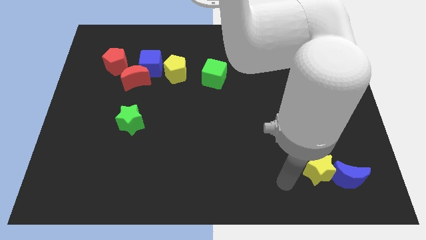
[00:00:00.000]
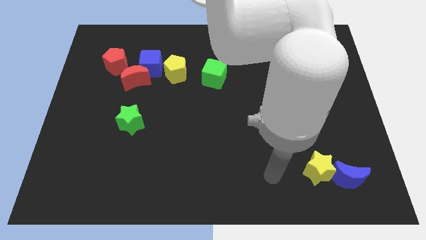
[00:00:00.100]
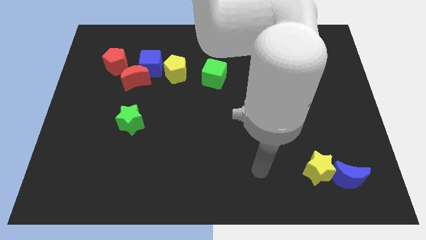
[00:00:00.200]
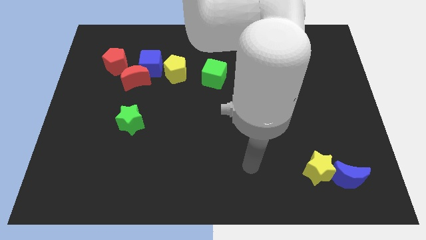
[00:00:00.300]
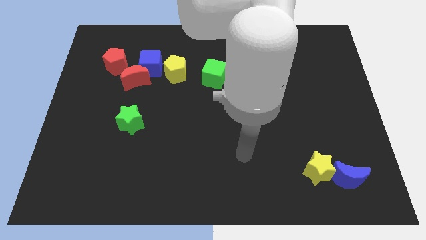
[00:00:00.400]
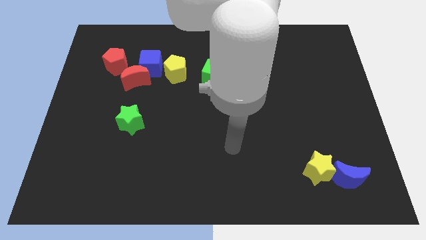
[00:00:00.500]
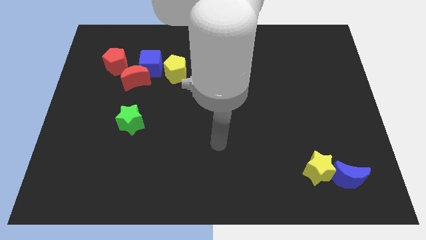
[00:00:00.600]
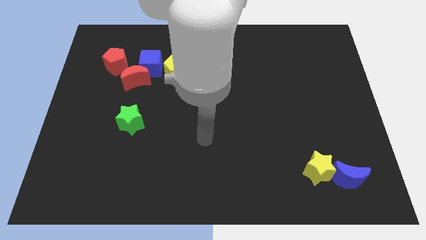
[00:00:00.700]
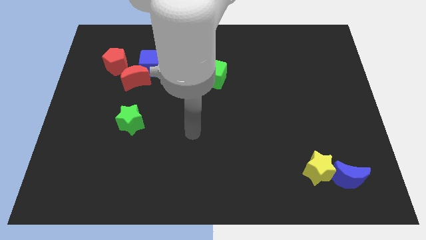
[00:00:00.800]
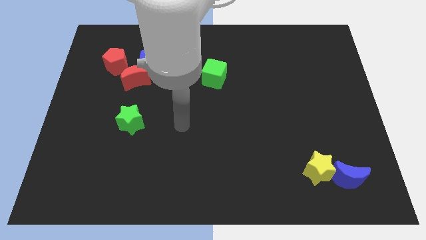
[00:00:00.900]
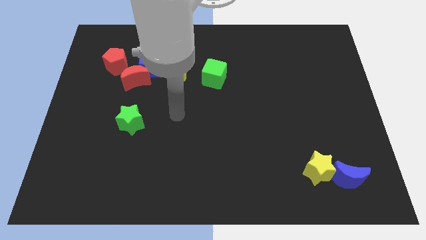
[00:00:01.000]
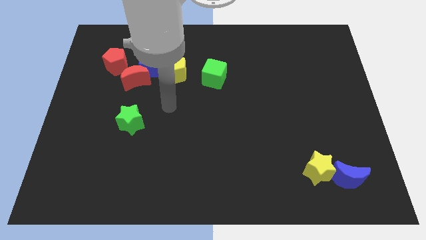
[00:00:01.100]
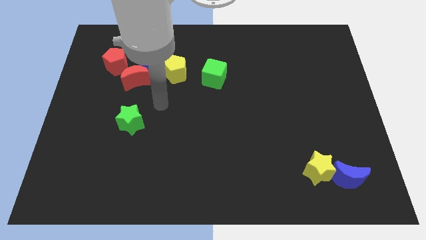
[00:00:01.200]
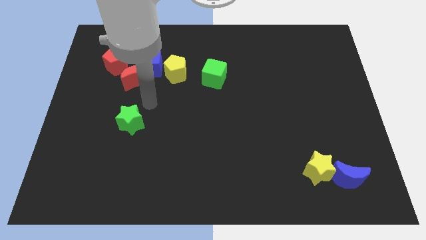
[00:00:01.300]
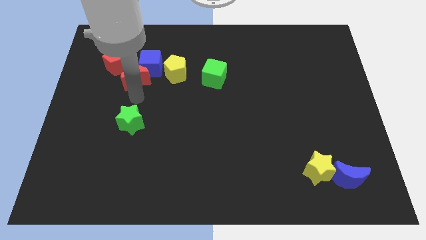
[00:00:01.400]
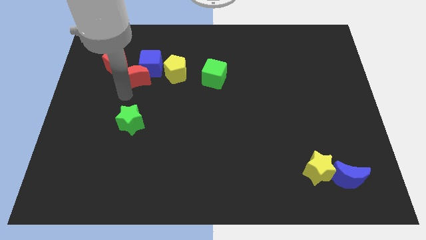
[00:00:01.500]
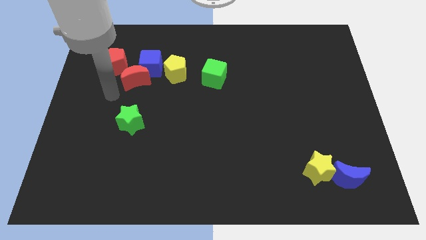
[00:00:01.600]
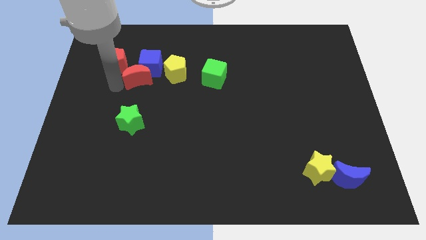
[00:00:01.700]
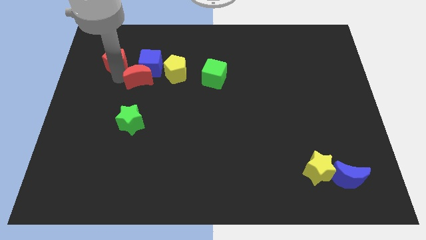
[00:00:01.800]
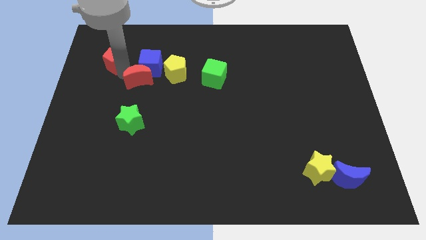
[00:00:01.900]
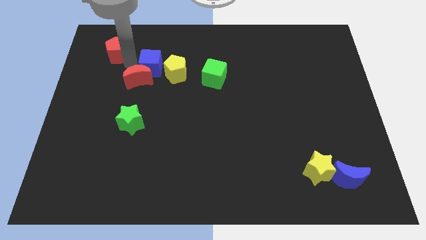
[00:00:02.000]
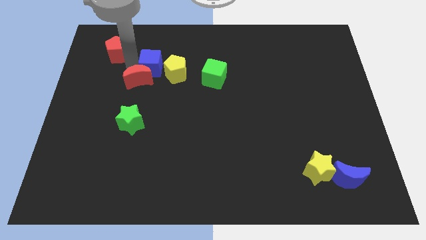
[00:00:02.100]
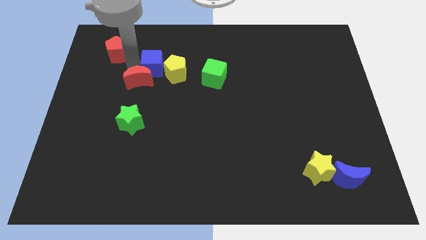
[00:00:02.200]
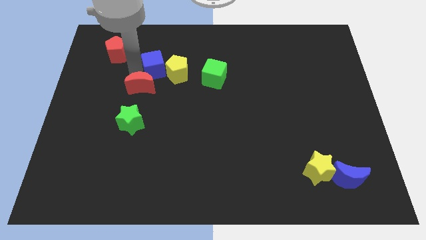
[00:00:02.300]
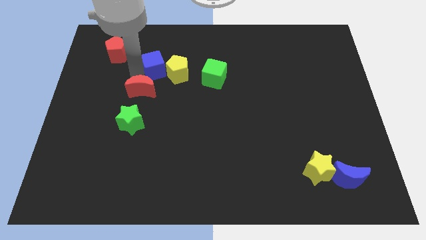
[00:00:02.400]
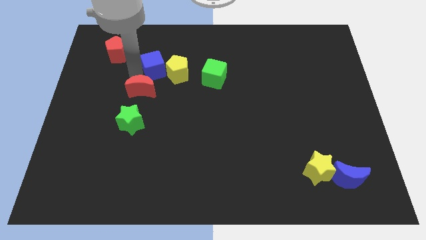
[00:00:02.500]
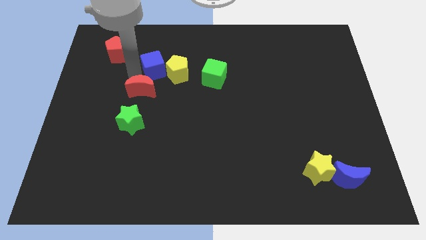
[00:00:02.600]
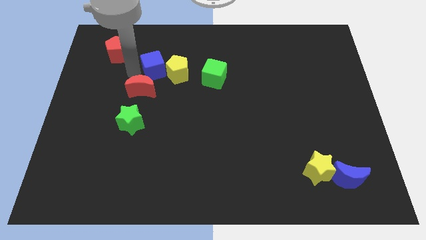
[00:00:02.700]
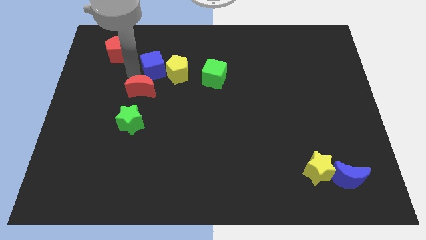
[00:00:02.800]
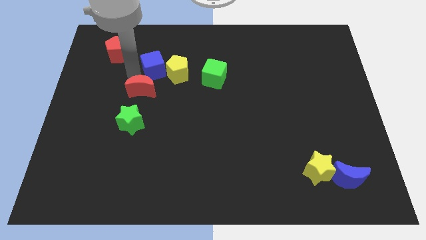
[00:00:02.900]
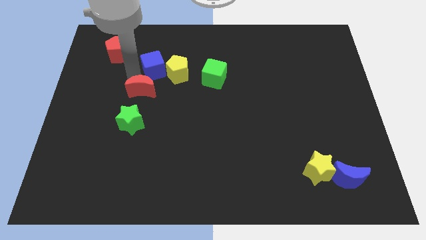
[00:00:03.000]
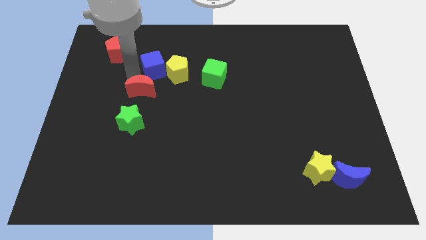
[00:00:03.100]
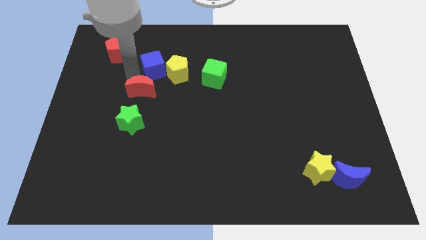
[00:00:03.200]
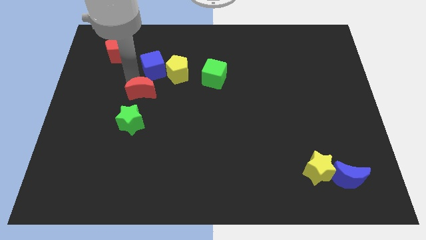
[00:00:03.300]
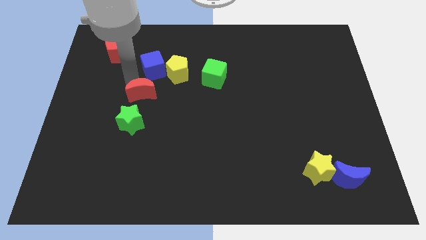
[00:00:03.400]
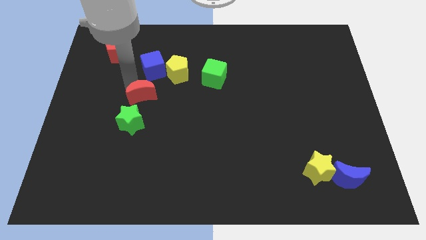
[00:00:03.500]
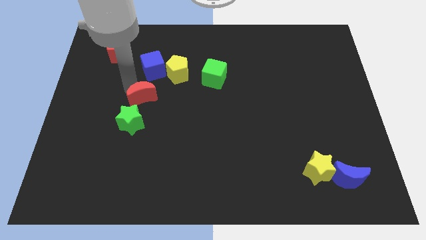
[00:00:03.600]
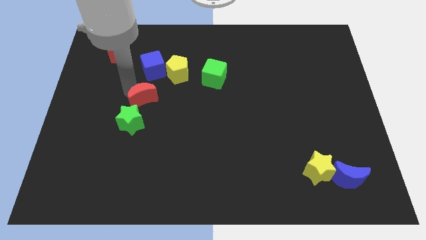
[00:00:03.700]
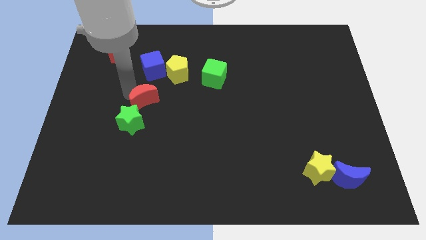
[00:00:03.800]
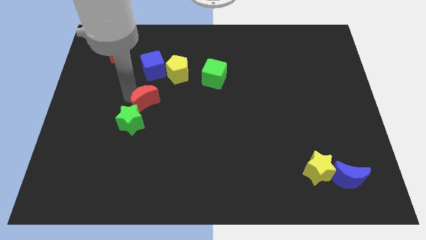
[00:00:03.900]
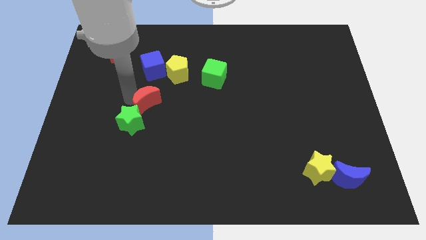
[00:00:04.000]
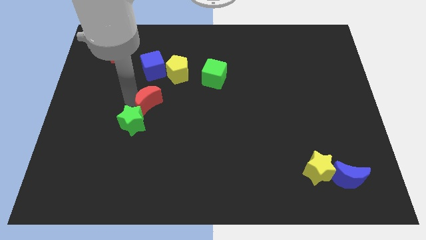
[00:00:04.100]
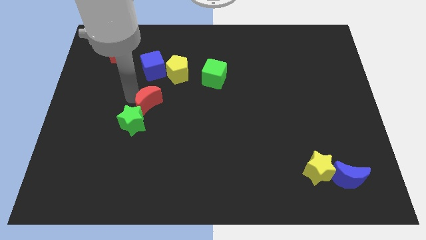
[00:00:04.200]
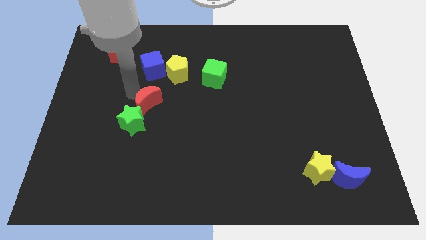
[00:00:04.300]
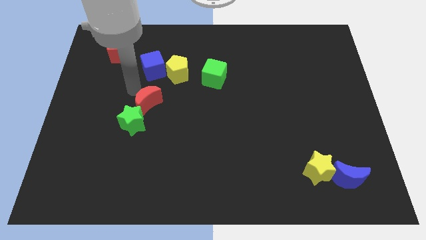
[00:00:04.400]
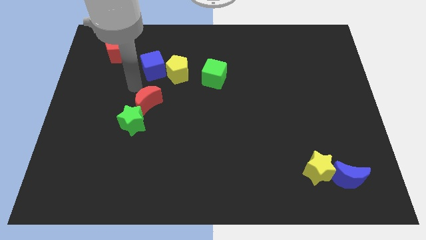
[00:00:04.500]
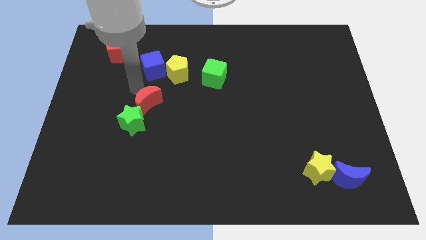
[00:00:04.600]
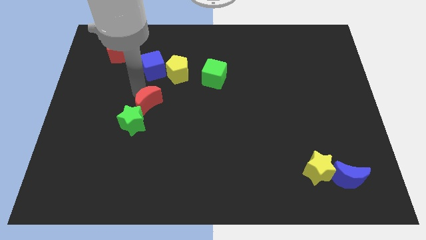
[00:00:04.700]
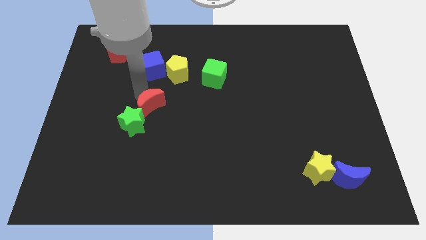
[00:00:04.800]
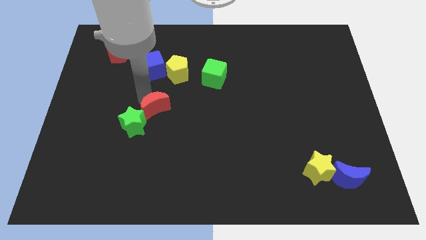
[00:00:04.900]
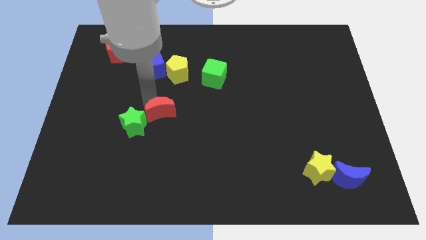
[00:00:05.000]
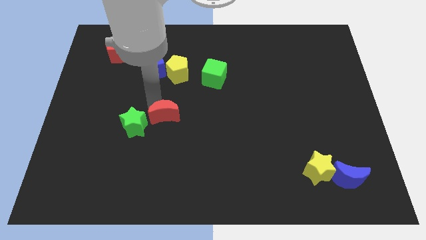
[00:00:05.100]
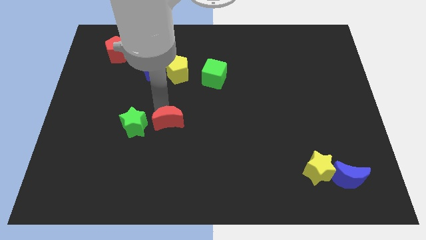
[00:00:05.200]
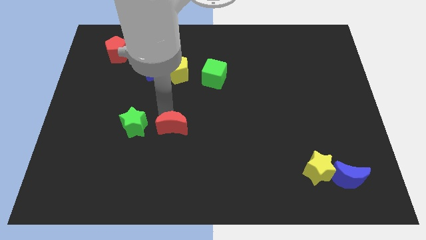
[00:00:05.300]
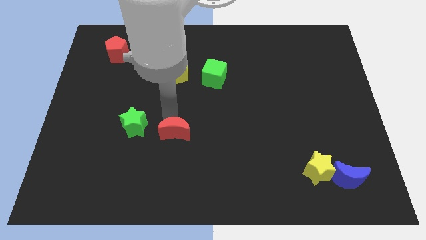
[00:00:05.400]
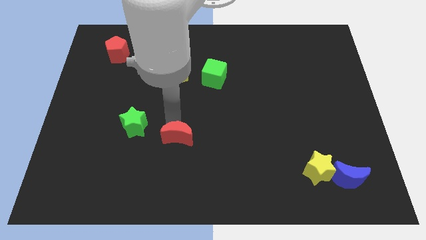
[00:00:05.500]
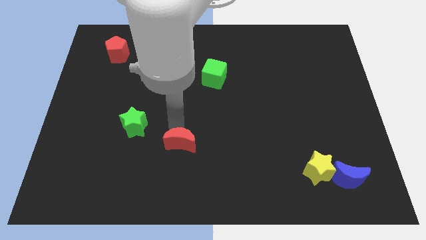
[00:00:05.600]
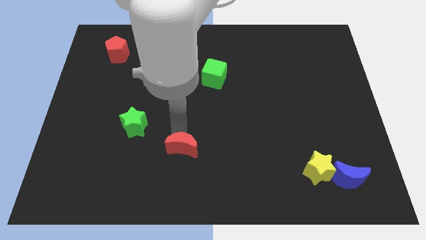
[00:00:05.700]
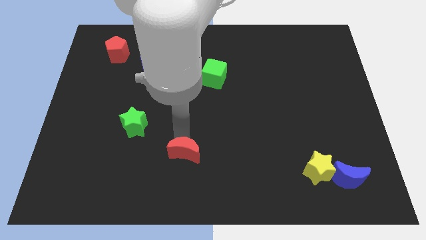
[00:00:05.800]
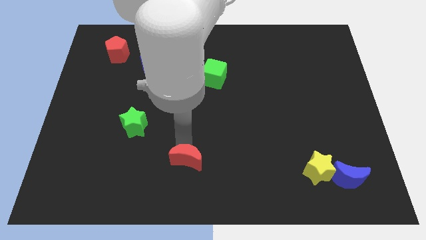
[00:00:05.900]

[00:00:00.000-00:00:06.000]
put the red moon to the bottom
